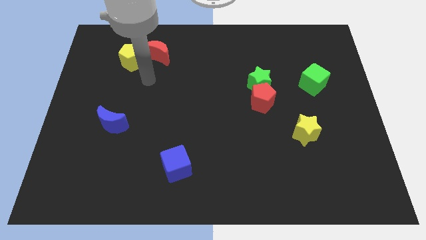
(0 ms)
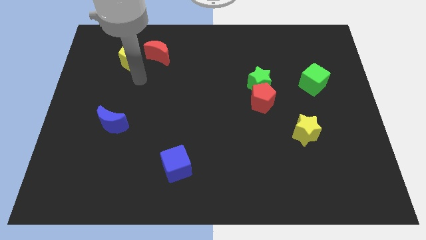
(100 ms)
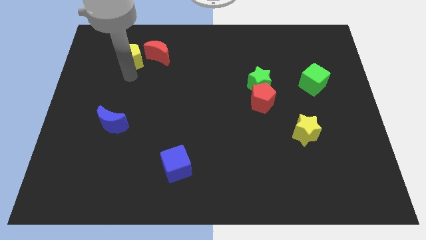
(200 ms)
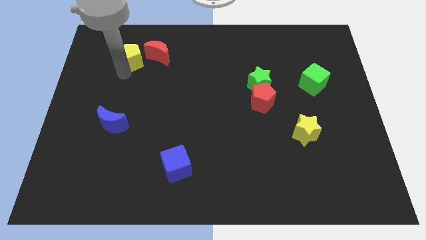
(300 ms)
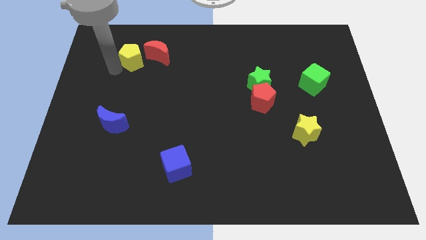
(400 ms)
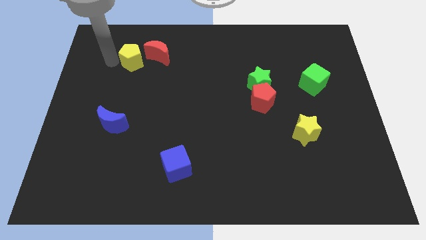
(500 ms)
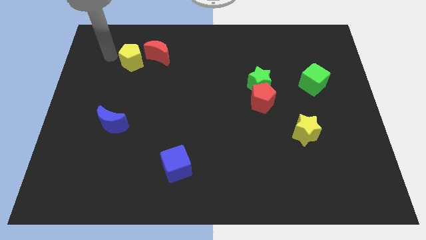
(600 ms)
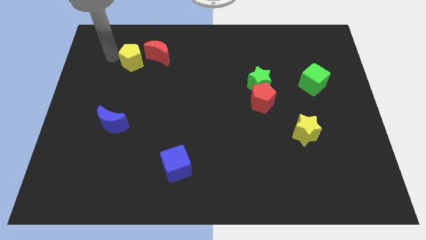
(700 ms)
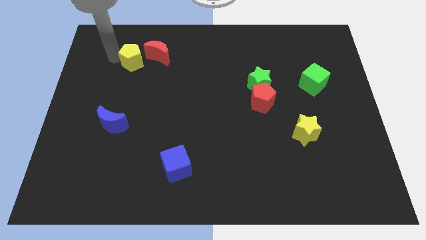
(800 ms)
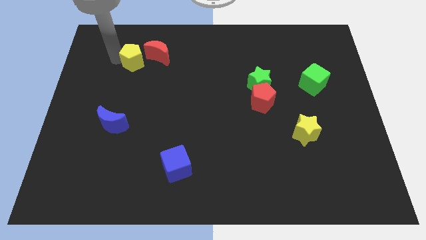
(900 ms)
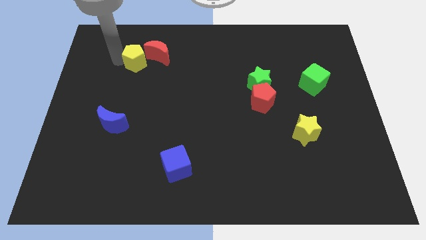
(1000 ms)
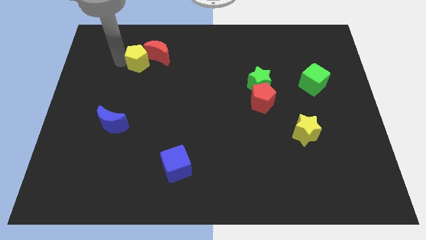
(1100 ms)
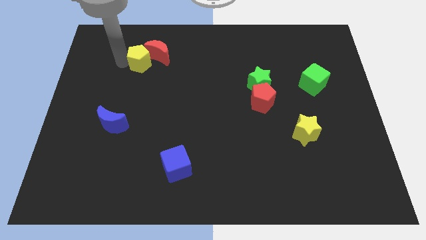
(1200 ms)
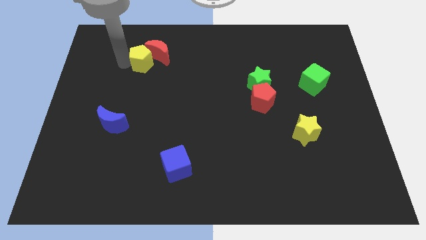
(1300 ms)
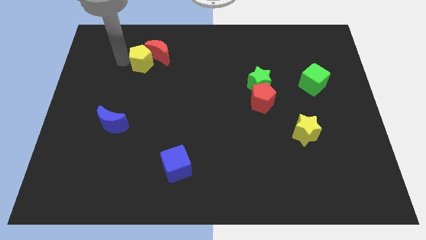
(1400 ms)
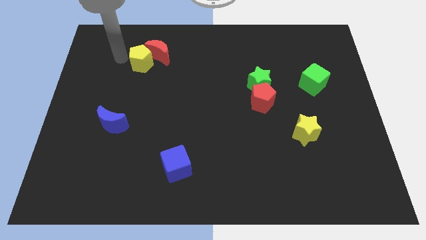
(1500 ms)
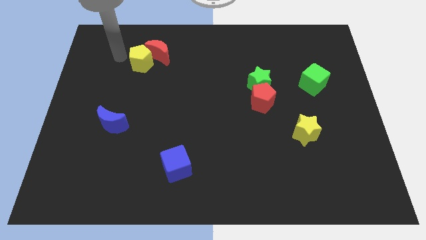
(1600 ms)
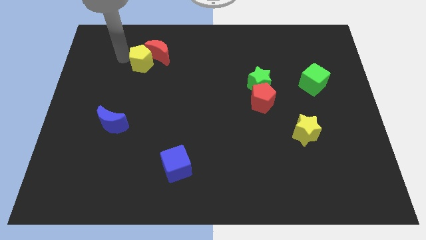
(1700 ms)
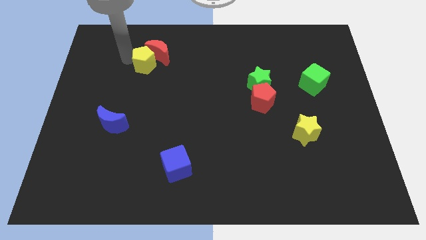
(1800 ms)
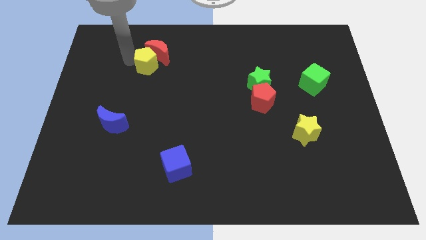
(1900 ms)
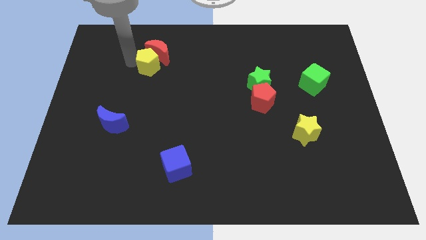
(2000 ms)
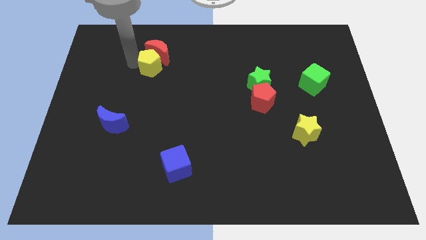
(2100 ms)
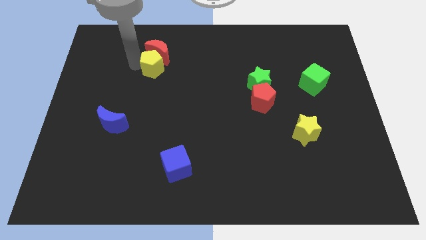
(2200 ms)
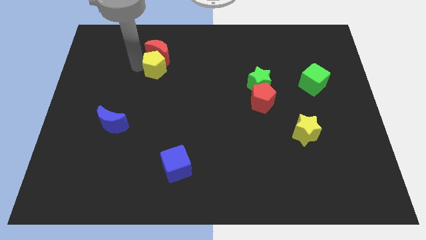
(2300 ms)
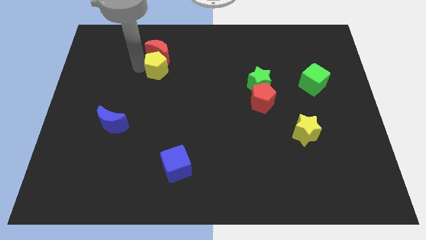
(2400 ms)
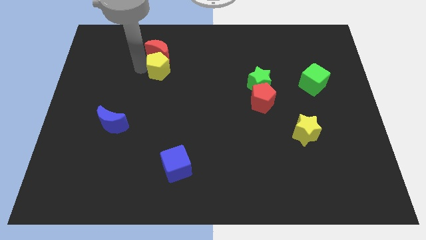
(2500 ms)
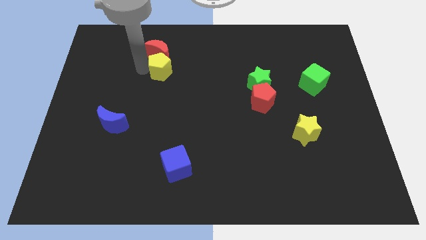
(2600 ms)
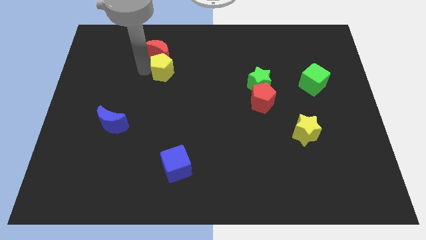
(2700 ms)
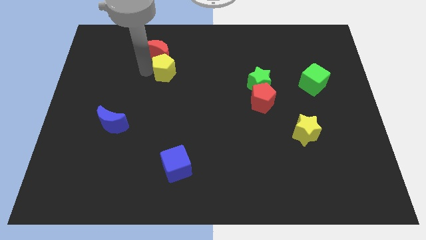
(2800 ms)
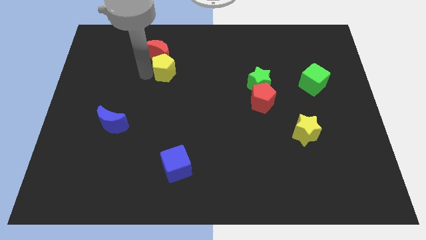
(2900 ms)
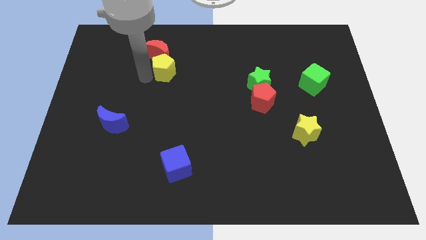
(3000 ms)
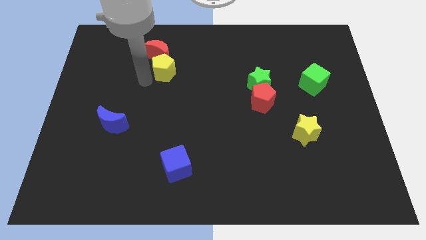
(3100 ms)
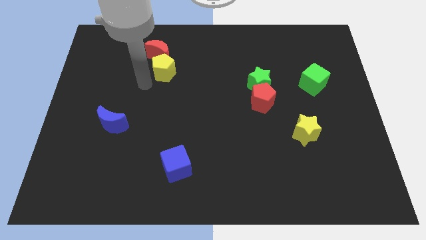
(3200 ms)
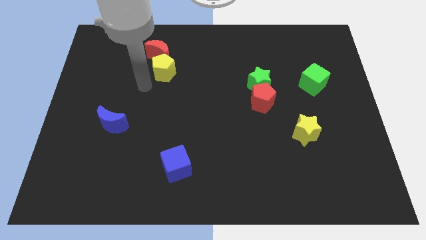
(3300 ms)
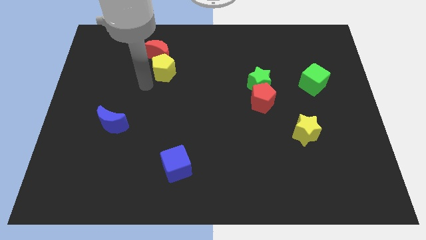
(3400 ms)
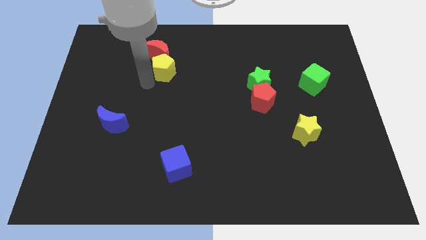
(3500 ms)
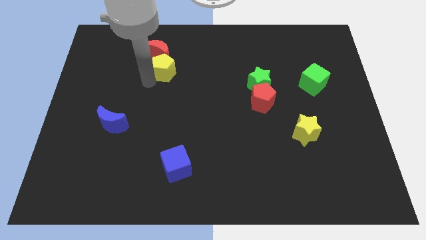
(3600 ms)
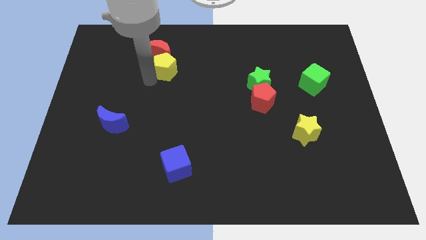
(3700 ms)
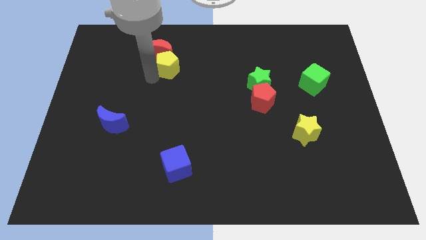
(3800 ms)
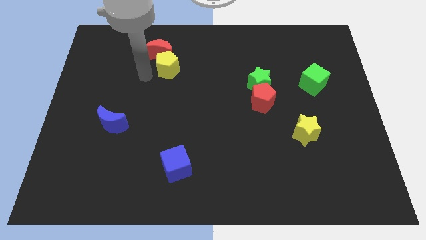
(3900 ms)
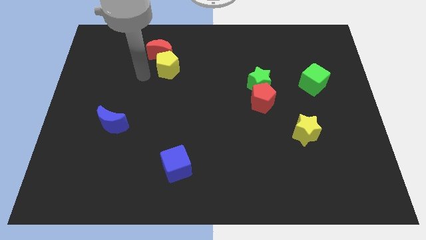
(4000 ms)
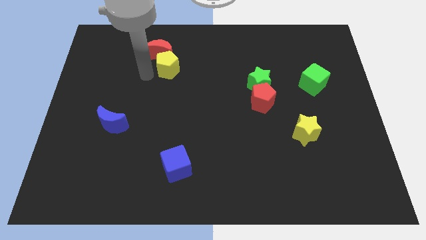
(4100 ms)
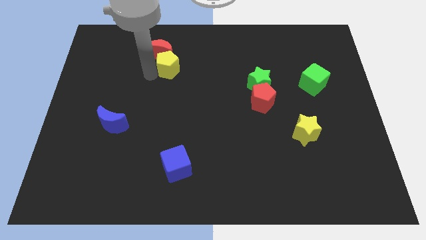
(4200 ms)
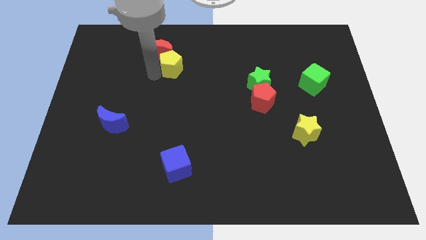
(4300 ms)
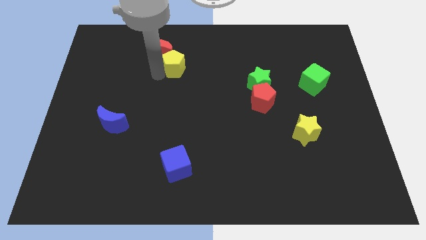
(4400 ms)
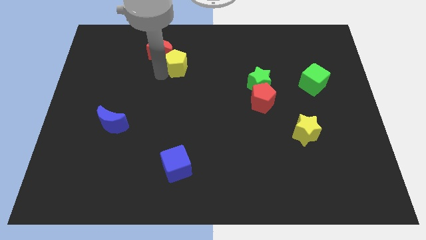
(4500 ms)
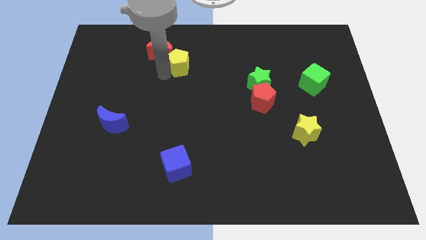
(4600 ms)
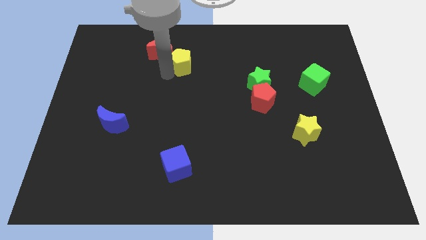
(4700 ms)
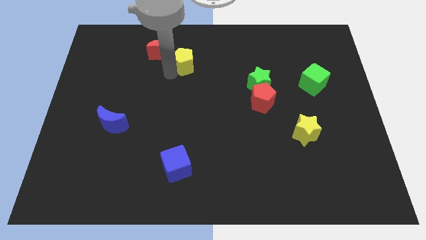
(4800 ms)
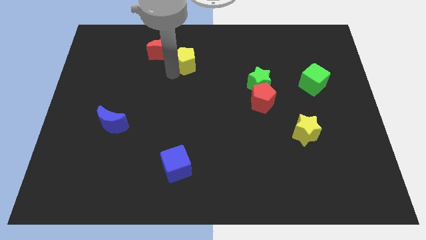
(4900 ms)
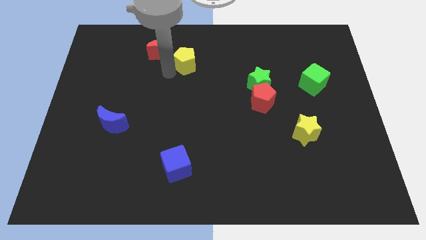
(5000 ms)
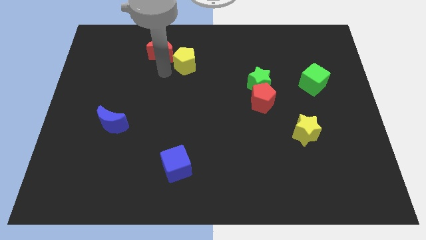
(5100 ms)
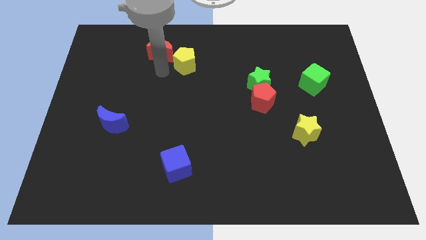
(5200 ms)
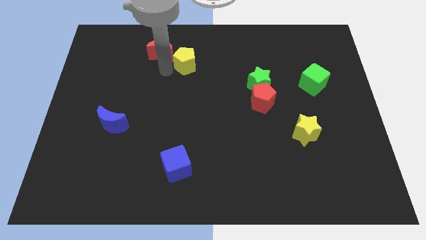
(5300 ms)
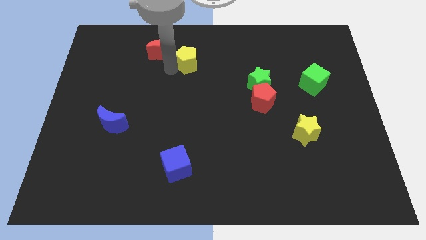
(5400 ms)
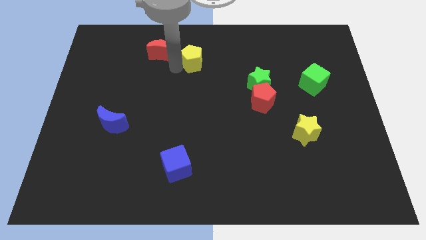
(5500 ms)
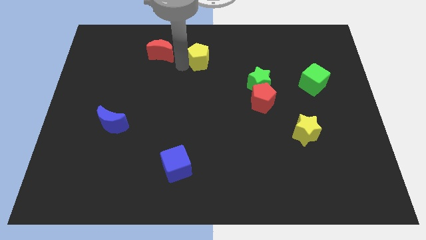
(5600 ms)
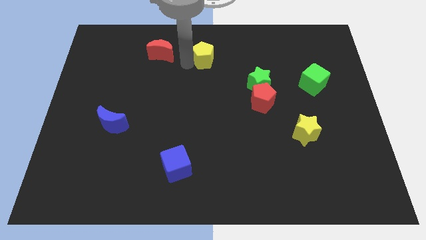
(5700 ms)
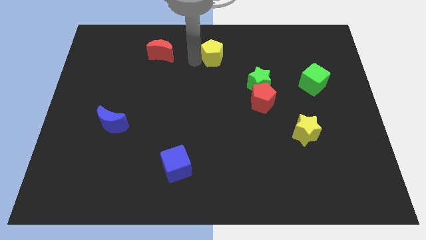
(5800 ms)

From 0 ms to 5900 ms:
move the yellow pentagon to the right

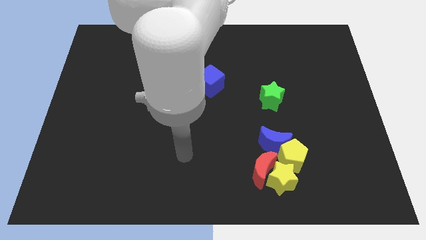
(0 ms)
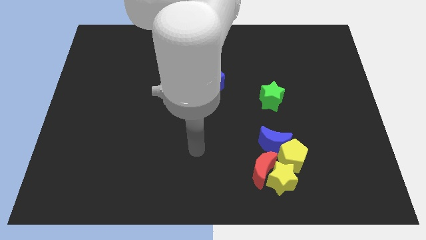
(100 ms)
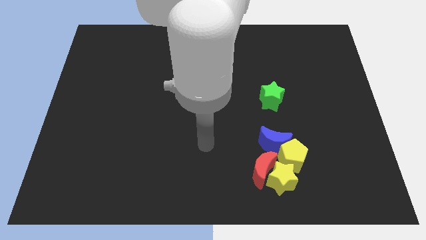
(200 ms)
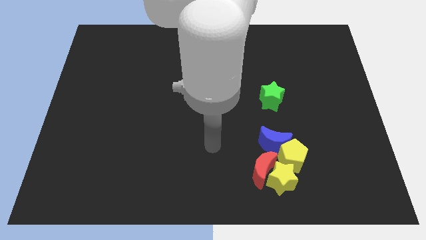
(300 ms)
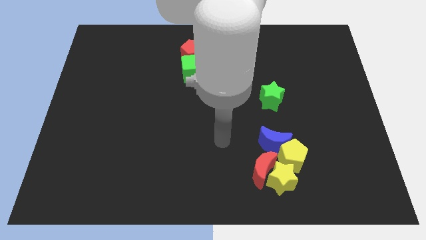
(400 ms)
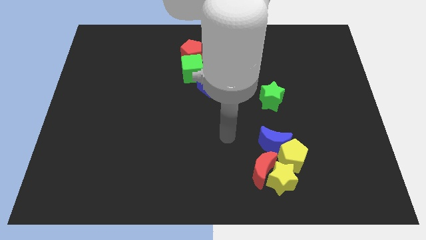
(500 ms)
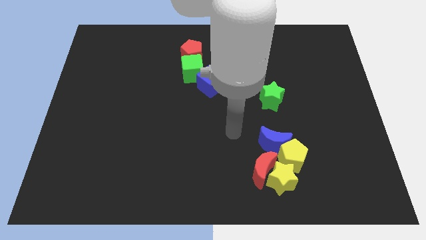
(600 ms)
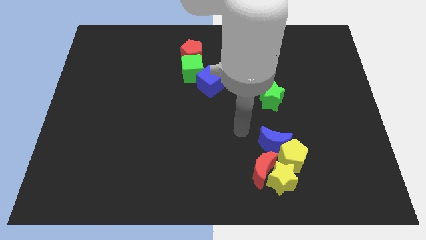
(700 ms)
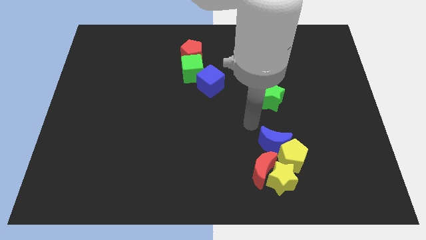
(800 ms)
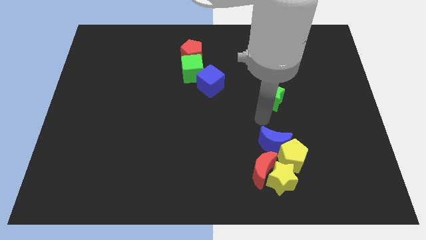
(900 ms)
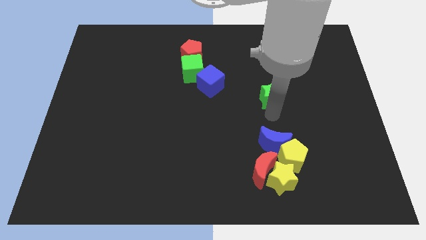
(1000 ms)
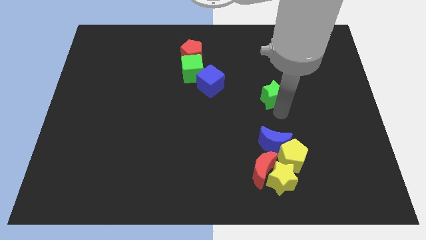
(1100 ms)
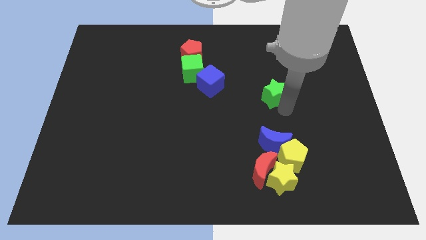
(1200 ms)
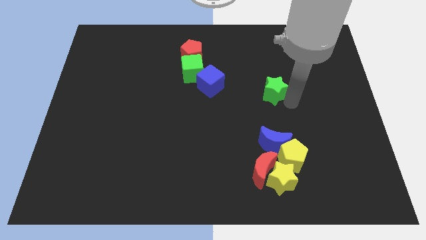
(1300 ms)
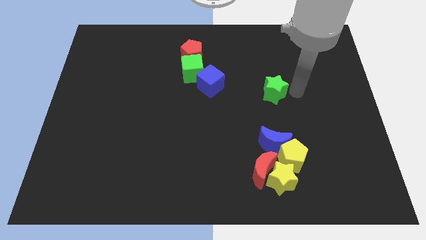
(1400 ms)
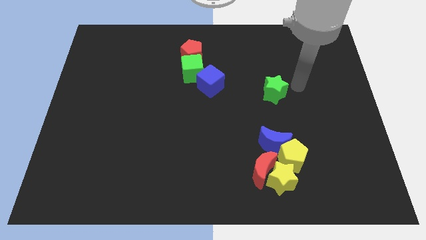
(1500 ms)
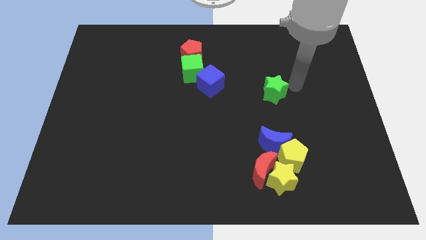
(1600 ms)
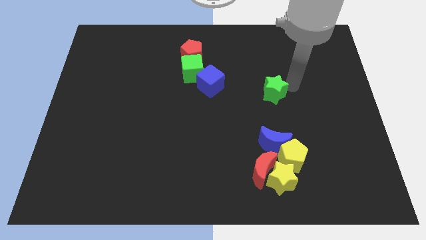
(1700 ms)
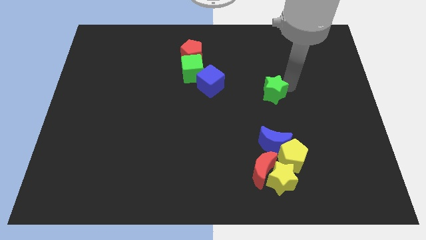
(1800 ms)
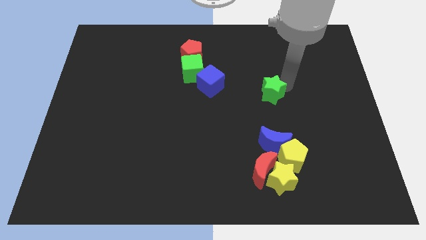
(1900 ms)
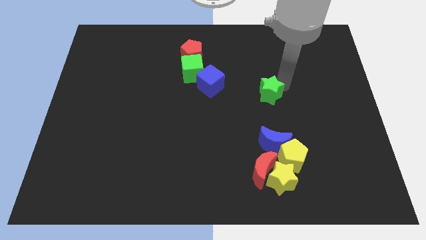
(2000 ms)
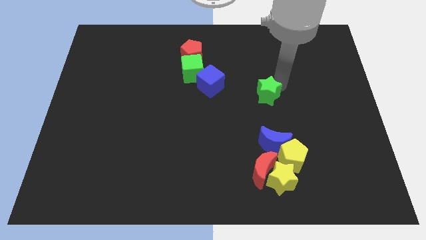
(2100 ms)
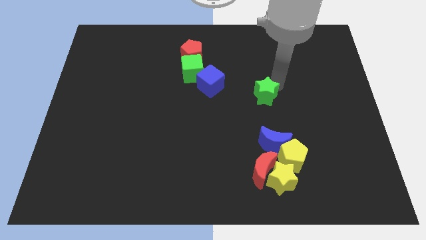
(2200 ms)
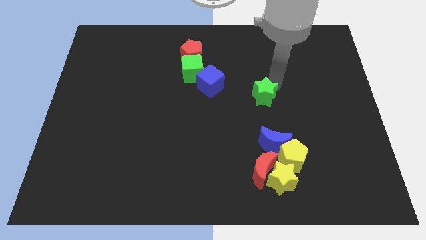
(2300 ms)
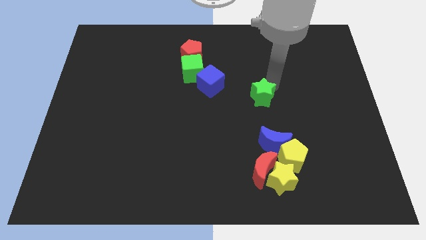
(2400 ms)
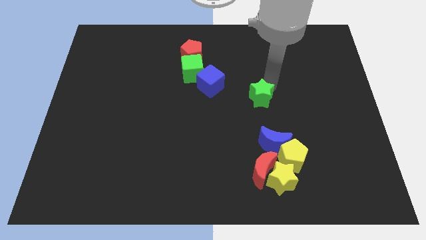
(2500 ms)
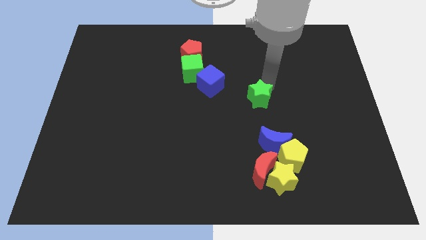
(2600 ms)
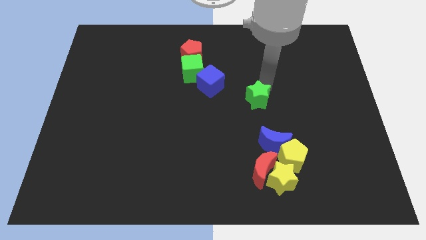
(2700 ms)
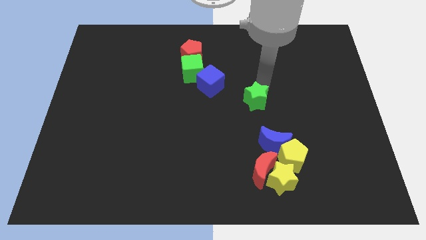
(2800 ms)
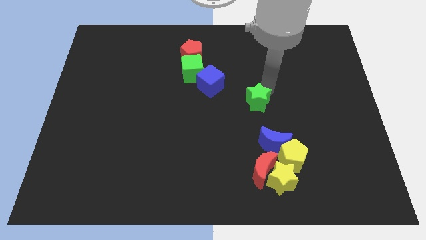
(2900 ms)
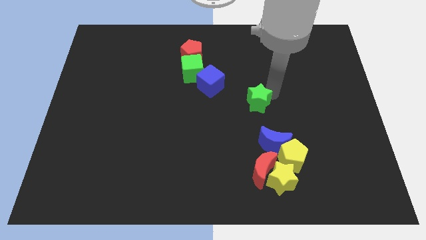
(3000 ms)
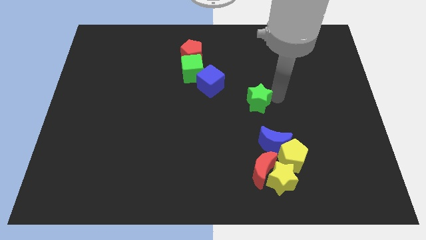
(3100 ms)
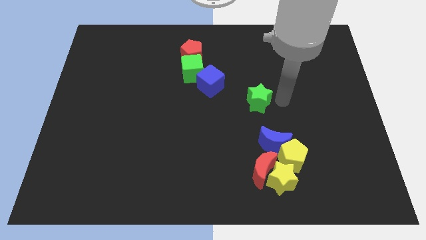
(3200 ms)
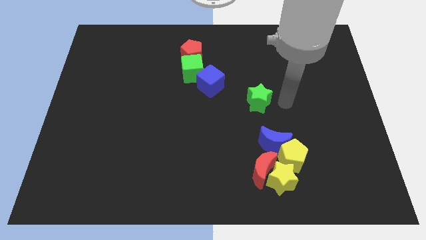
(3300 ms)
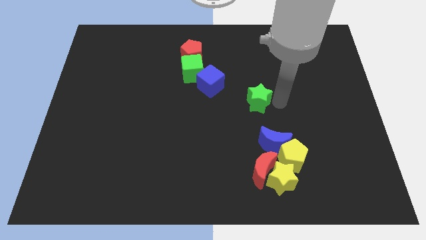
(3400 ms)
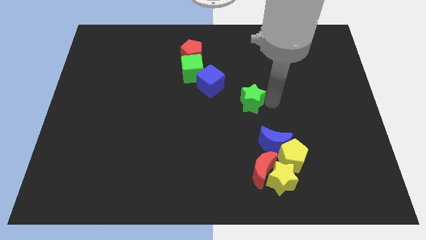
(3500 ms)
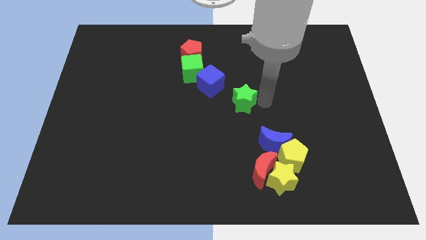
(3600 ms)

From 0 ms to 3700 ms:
slide the green star a little bit to the left
